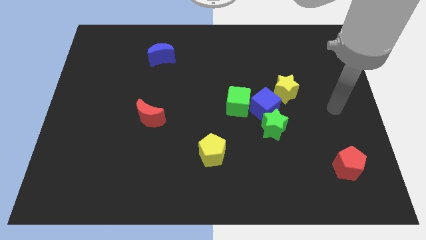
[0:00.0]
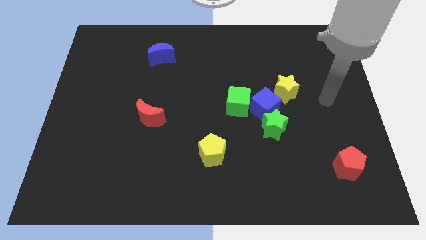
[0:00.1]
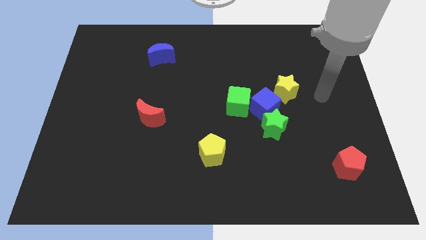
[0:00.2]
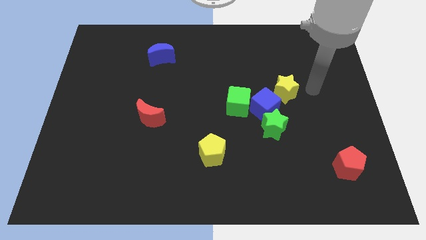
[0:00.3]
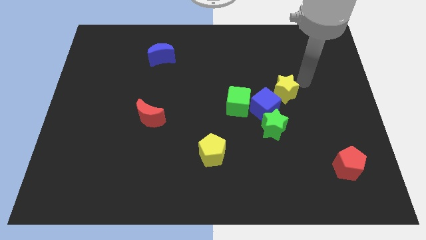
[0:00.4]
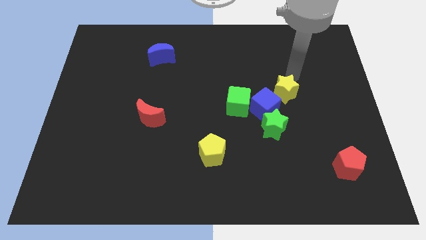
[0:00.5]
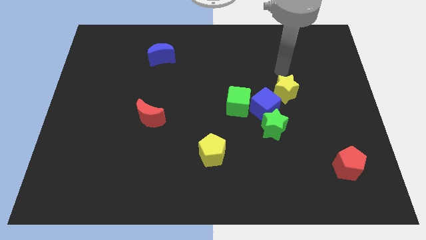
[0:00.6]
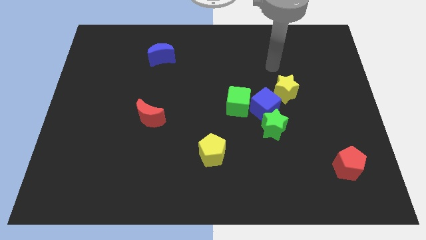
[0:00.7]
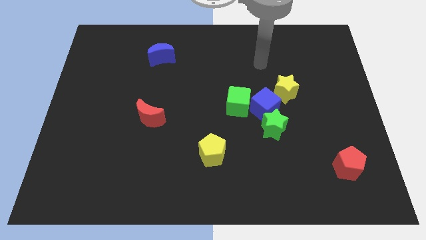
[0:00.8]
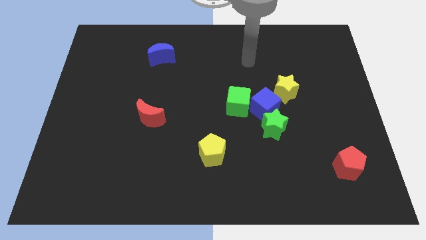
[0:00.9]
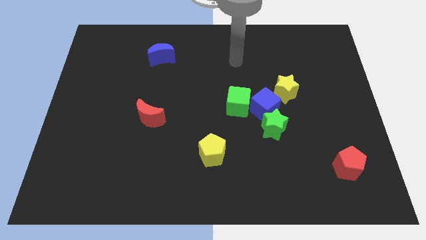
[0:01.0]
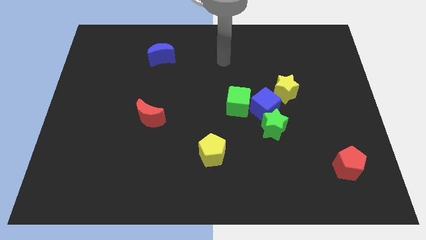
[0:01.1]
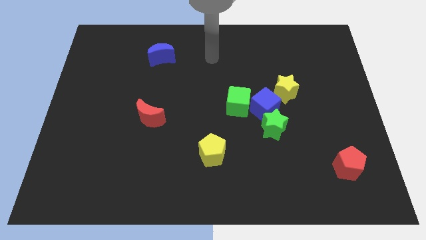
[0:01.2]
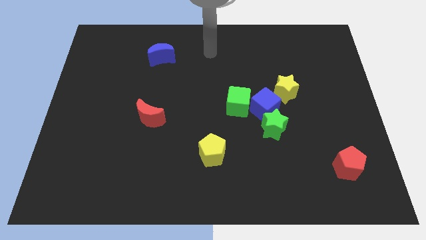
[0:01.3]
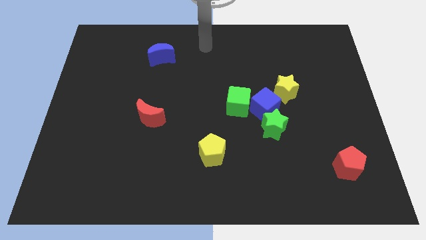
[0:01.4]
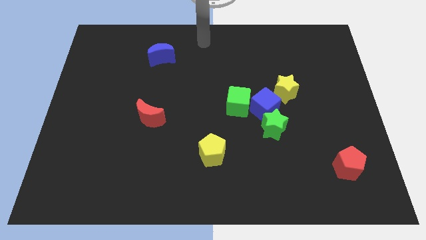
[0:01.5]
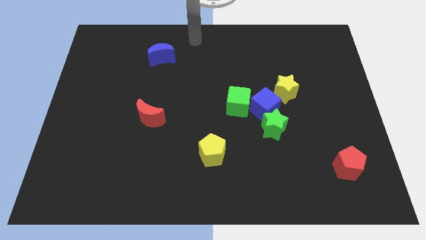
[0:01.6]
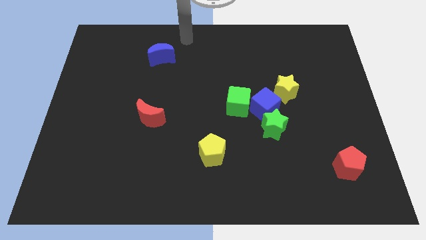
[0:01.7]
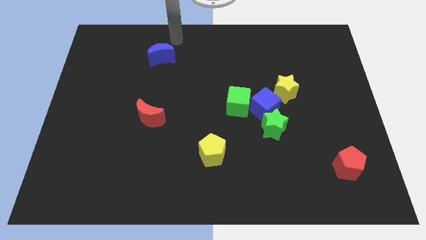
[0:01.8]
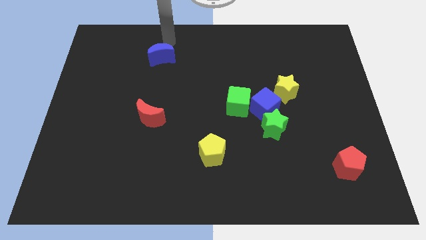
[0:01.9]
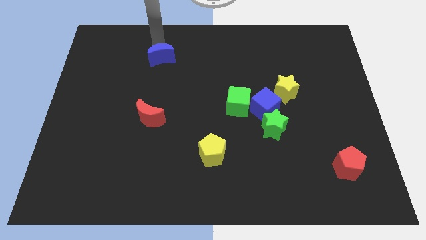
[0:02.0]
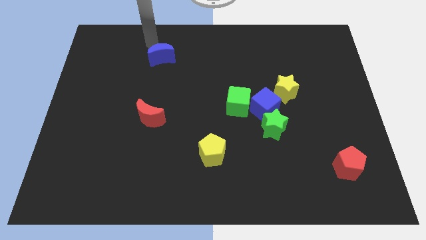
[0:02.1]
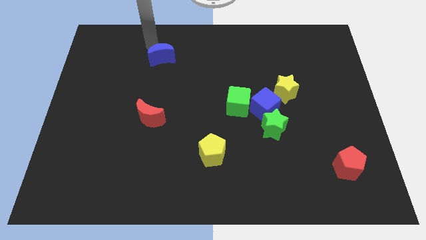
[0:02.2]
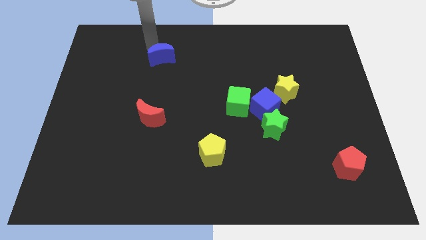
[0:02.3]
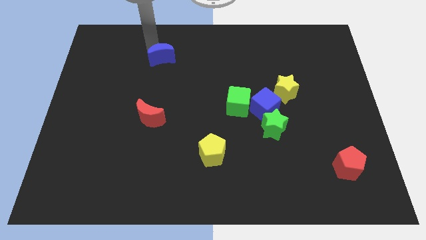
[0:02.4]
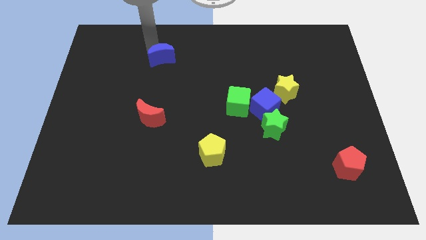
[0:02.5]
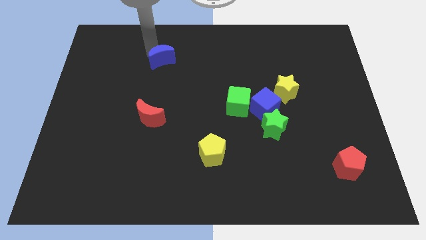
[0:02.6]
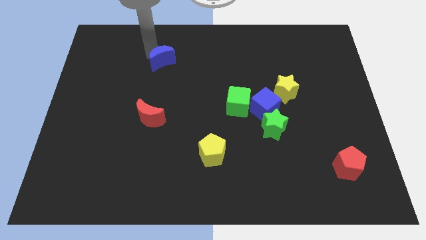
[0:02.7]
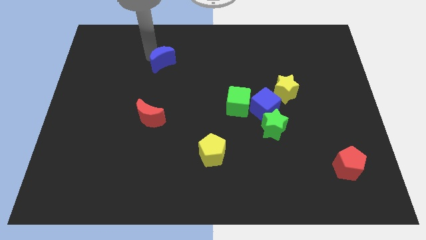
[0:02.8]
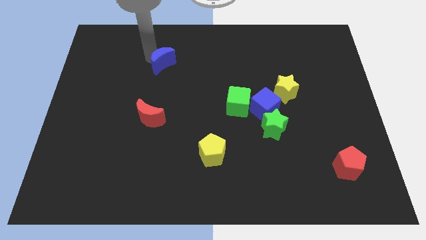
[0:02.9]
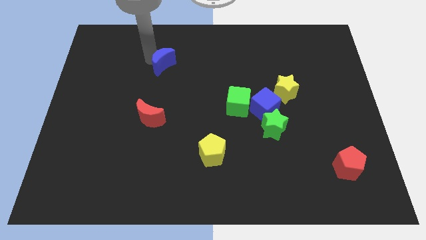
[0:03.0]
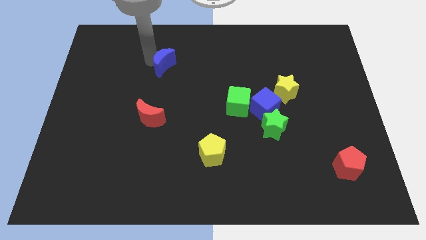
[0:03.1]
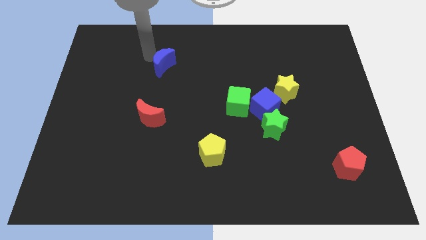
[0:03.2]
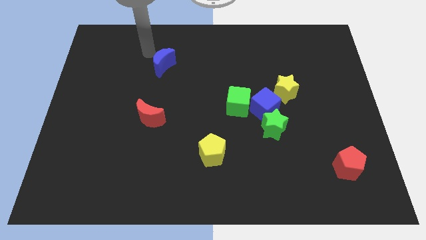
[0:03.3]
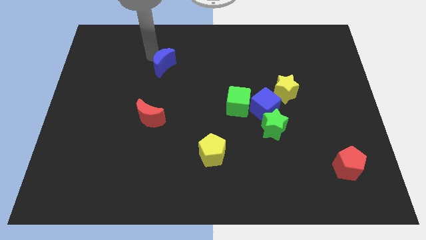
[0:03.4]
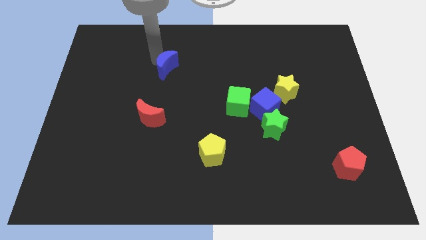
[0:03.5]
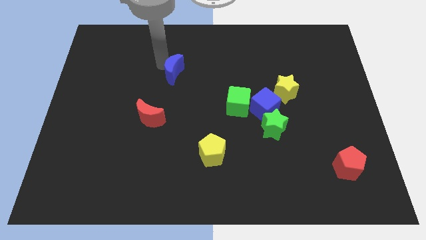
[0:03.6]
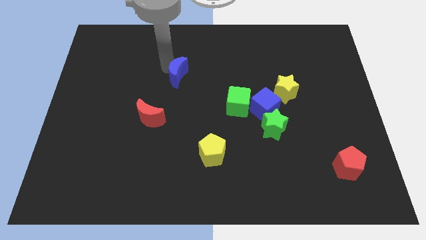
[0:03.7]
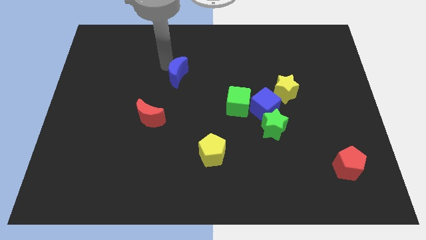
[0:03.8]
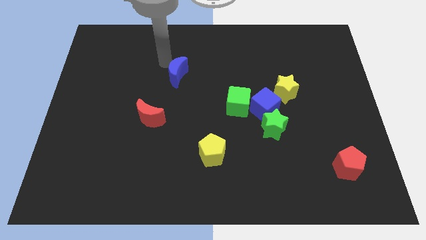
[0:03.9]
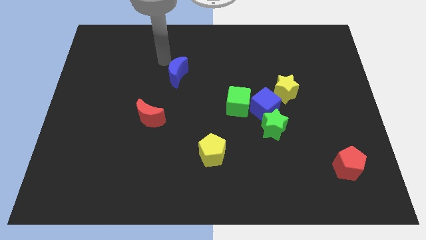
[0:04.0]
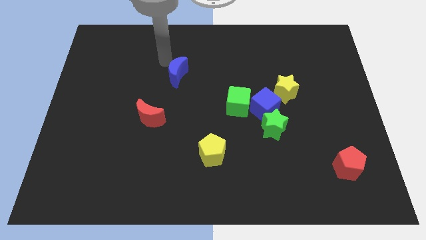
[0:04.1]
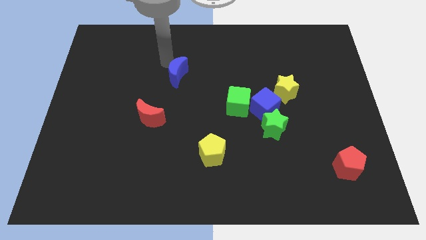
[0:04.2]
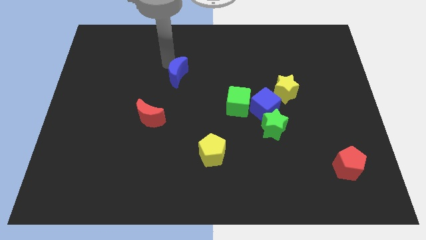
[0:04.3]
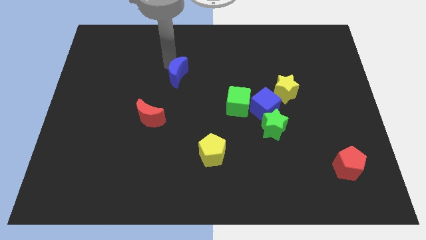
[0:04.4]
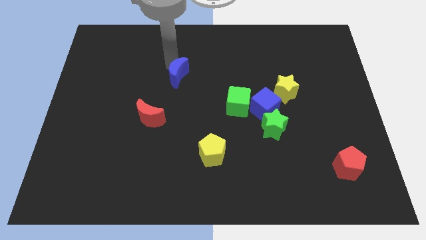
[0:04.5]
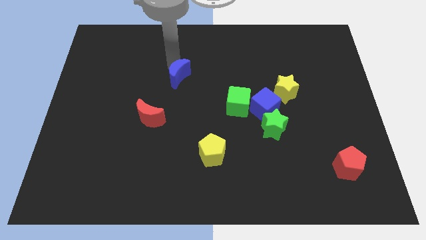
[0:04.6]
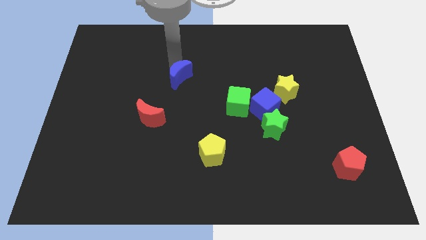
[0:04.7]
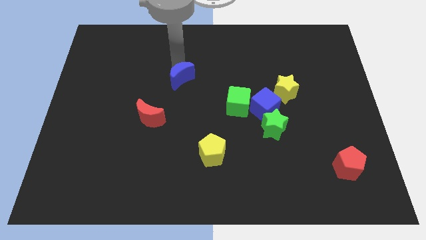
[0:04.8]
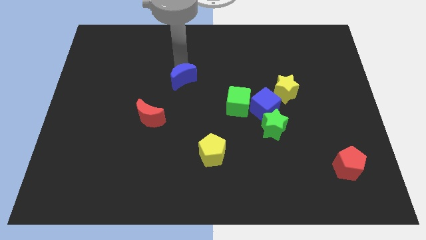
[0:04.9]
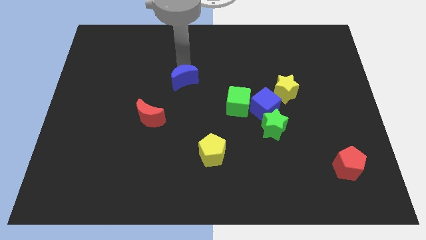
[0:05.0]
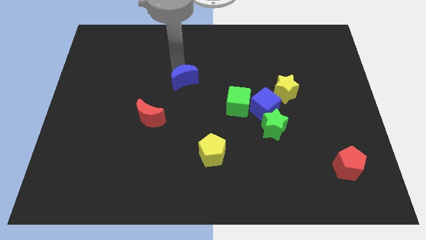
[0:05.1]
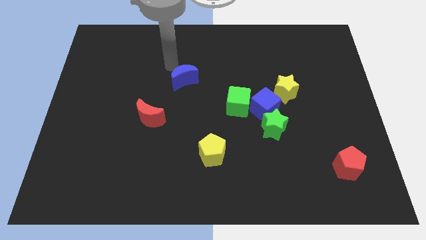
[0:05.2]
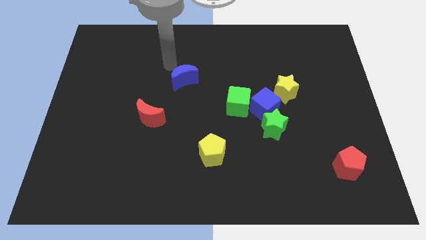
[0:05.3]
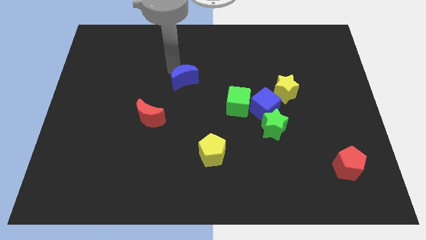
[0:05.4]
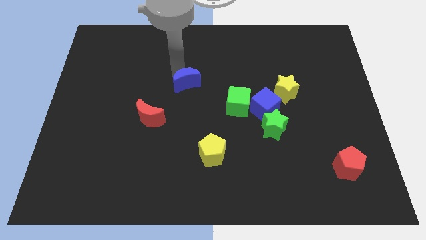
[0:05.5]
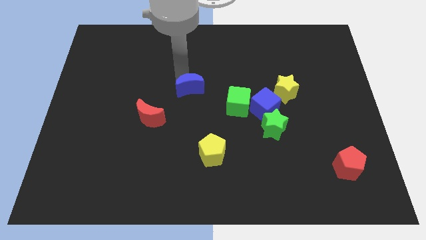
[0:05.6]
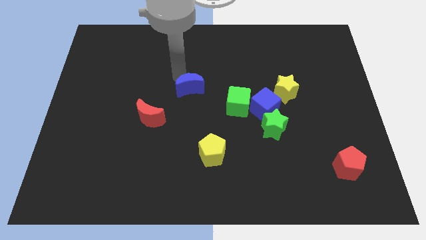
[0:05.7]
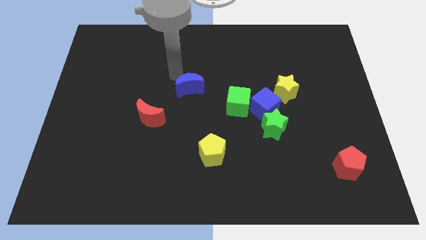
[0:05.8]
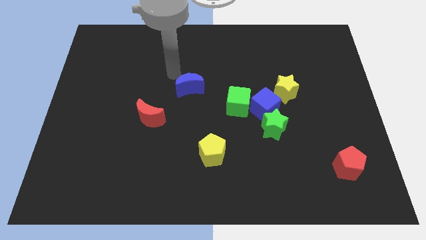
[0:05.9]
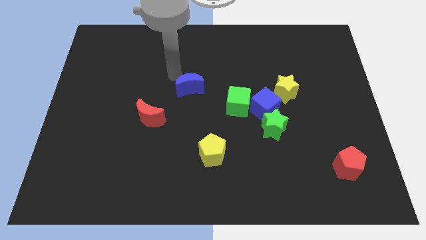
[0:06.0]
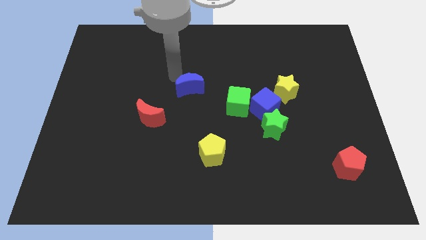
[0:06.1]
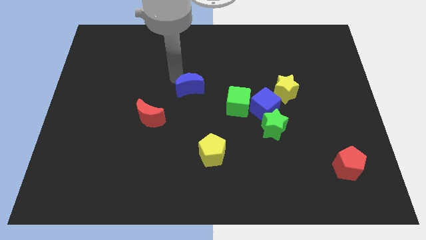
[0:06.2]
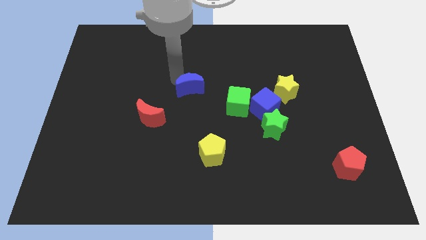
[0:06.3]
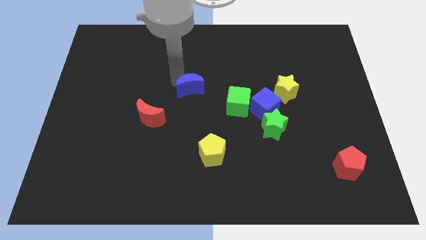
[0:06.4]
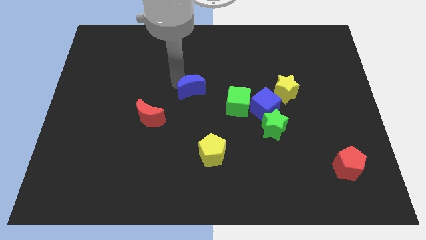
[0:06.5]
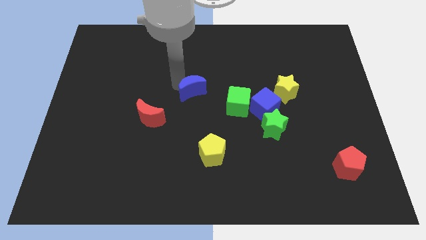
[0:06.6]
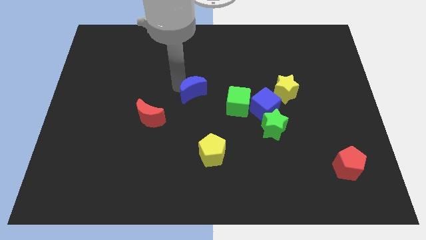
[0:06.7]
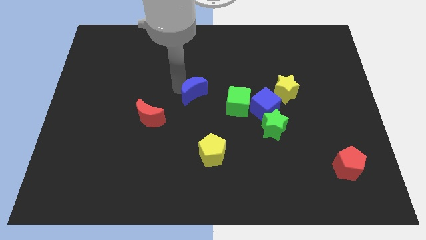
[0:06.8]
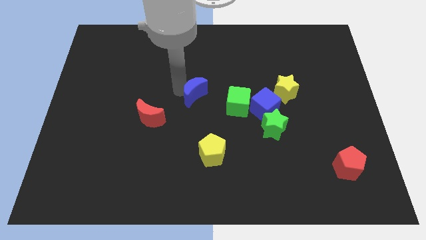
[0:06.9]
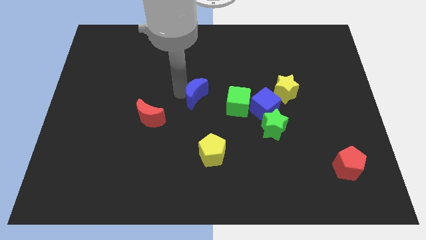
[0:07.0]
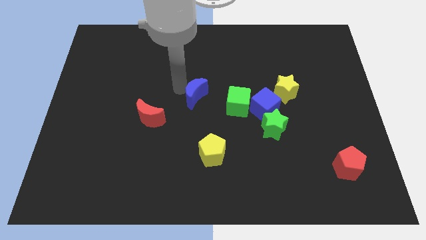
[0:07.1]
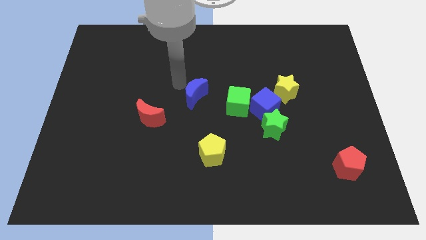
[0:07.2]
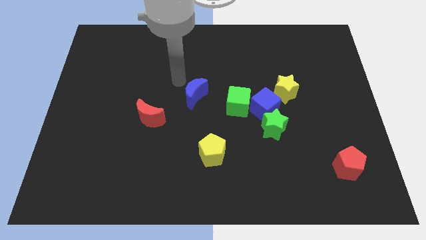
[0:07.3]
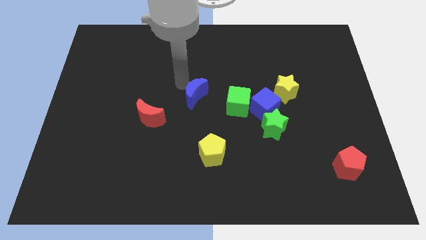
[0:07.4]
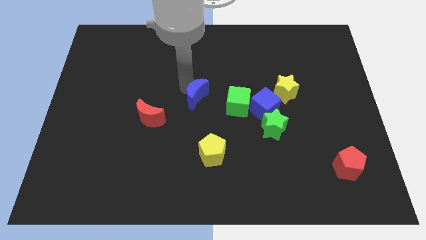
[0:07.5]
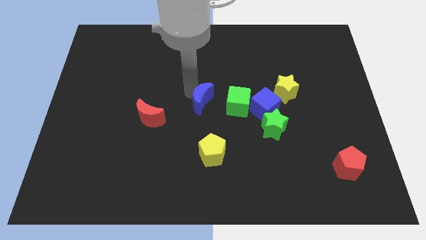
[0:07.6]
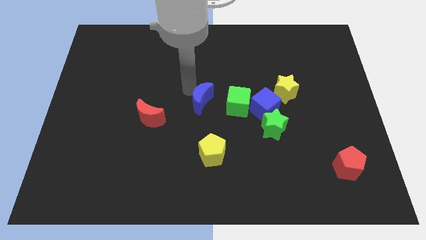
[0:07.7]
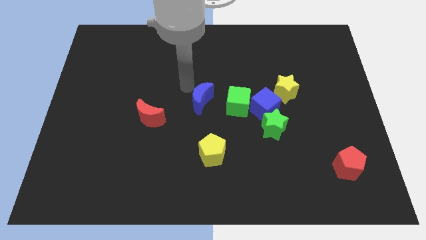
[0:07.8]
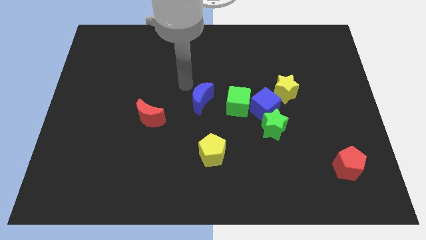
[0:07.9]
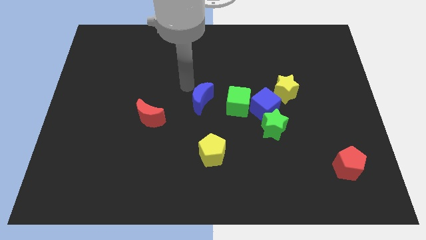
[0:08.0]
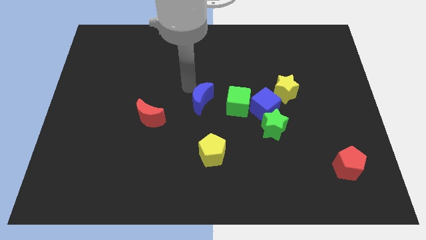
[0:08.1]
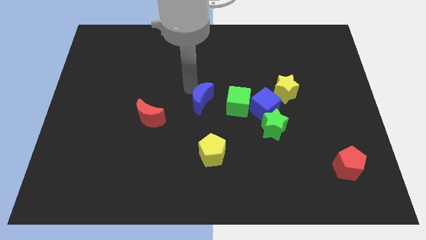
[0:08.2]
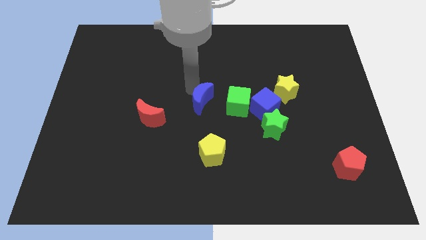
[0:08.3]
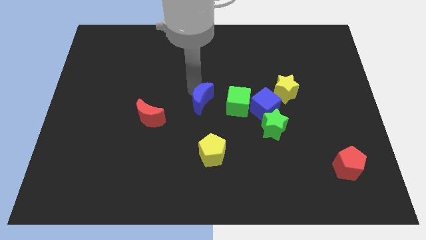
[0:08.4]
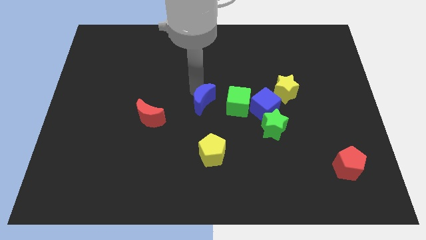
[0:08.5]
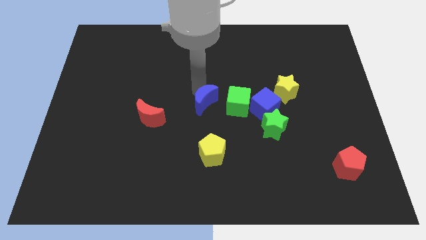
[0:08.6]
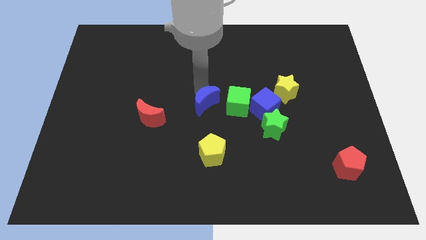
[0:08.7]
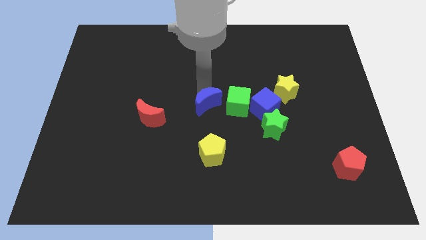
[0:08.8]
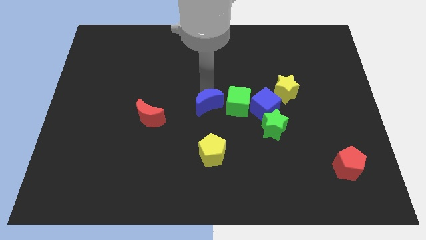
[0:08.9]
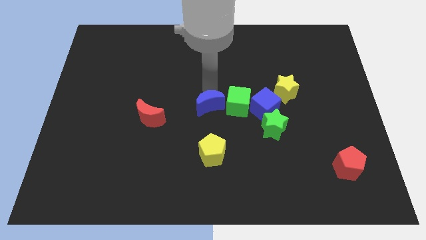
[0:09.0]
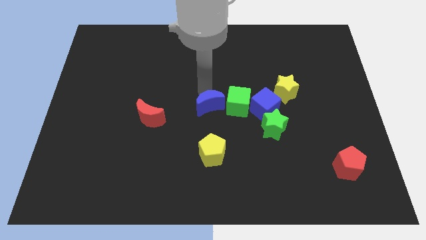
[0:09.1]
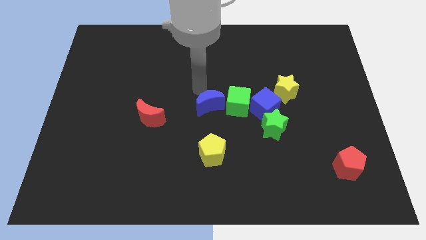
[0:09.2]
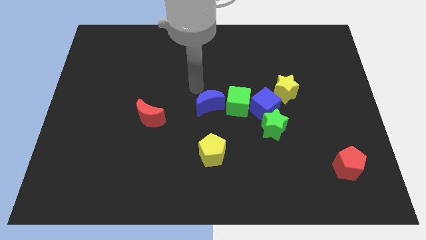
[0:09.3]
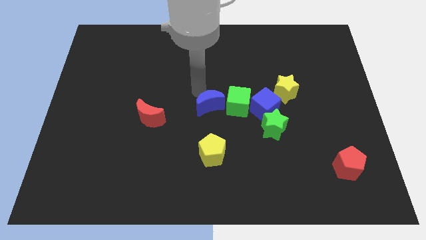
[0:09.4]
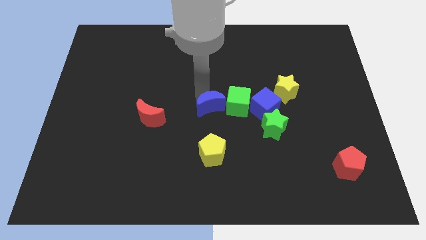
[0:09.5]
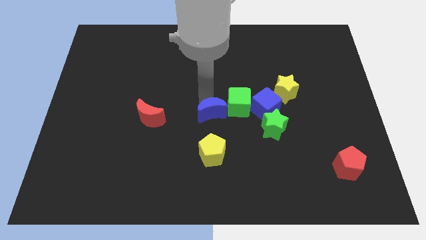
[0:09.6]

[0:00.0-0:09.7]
push the blue moon to the left side of the green star
